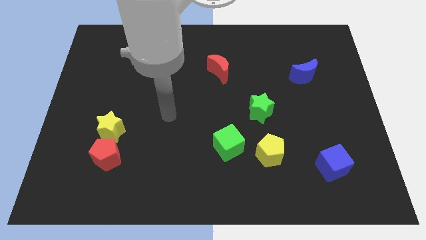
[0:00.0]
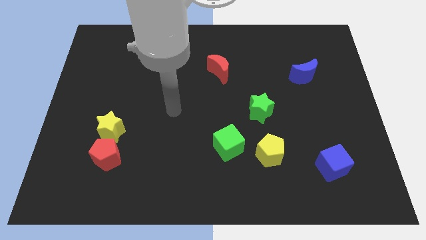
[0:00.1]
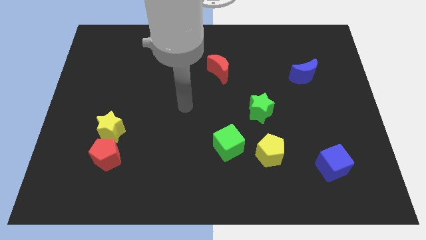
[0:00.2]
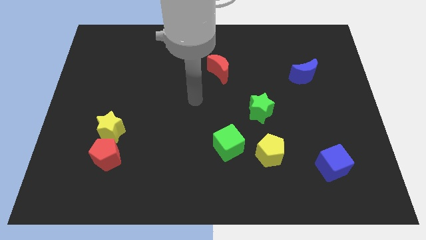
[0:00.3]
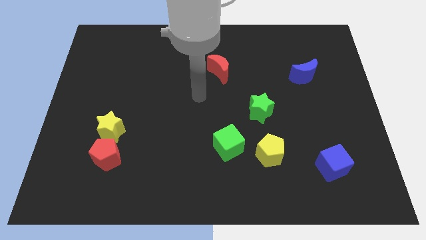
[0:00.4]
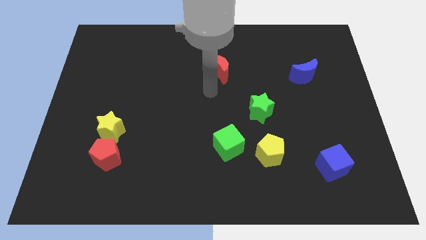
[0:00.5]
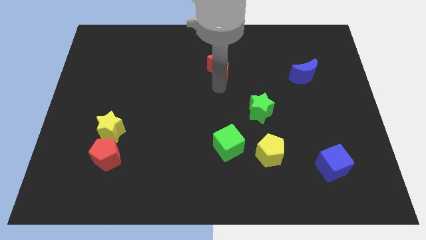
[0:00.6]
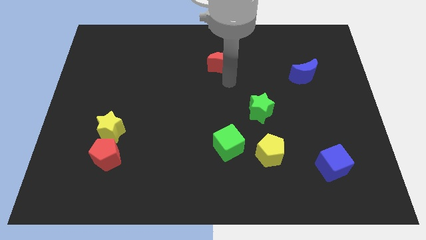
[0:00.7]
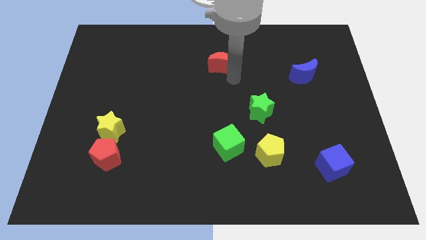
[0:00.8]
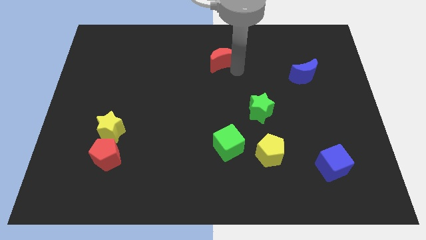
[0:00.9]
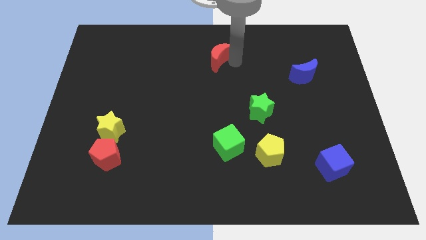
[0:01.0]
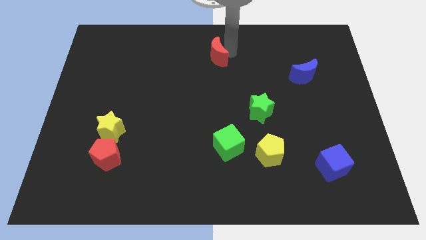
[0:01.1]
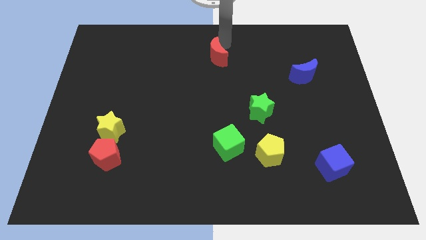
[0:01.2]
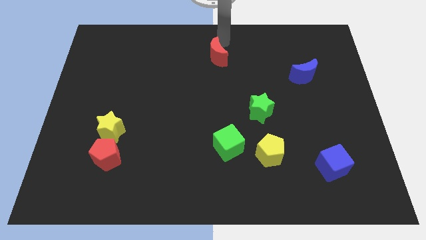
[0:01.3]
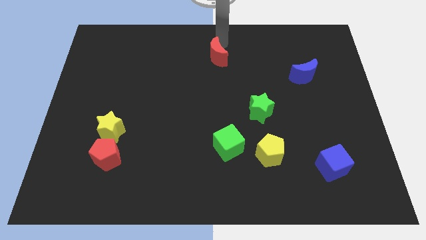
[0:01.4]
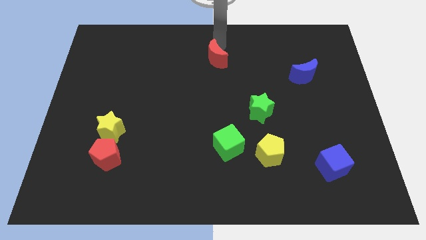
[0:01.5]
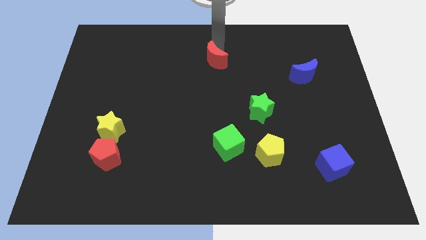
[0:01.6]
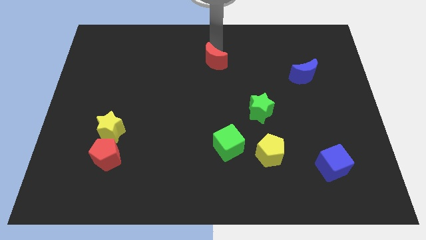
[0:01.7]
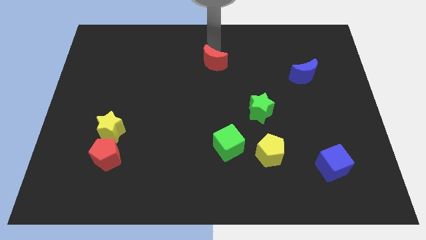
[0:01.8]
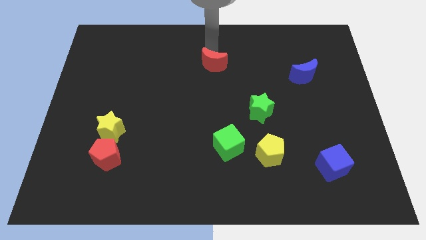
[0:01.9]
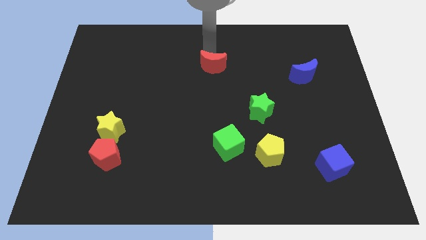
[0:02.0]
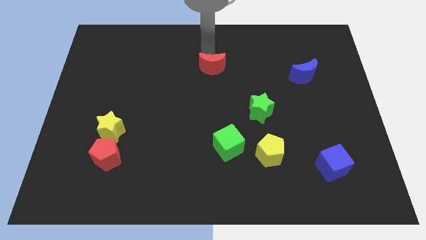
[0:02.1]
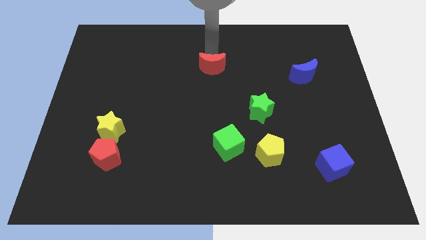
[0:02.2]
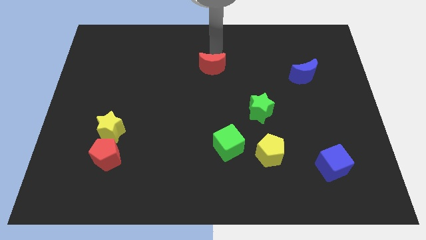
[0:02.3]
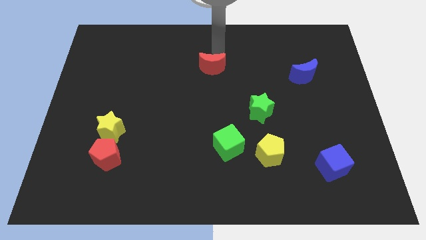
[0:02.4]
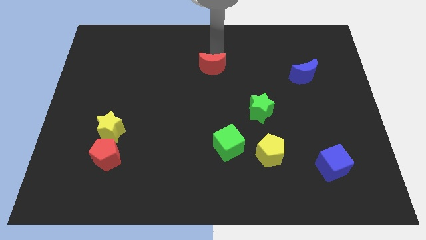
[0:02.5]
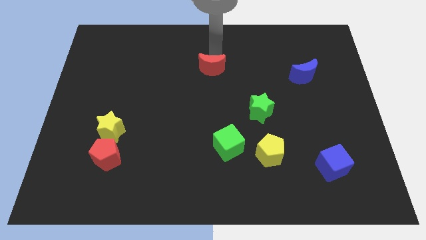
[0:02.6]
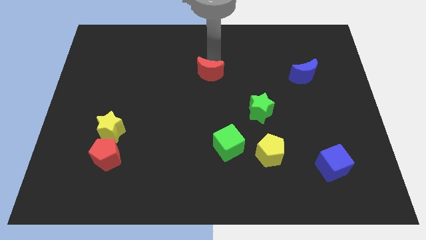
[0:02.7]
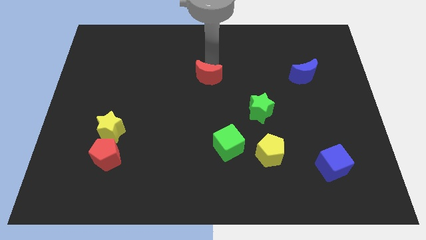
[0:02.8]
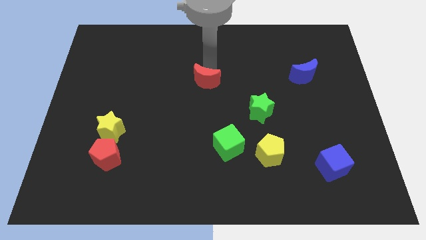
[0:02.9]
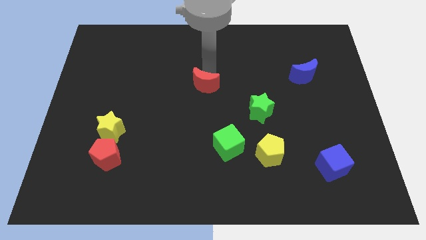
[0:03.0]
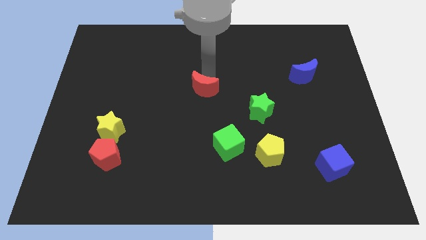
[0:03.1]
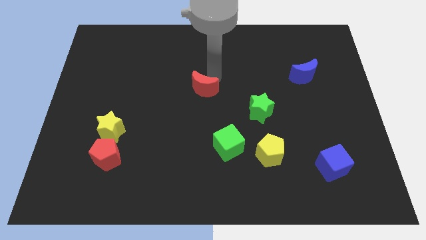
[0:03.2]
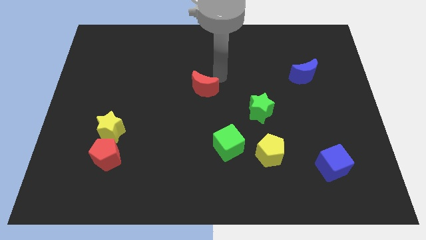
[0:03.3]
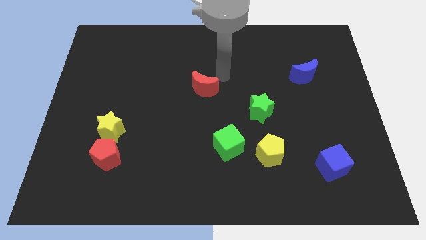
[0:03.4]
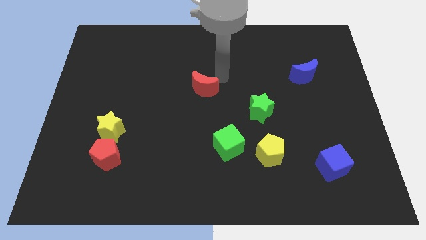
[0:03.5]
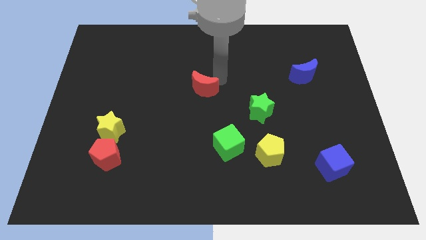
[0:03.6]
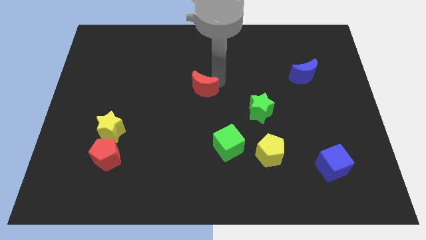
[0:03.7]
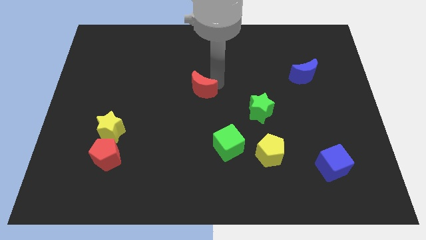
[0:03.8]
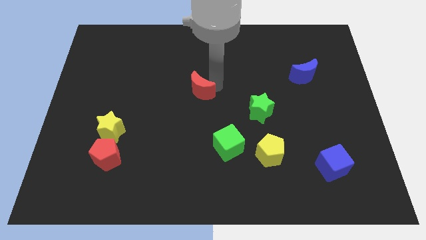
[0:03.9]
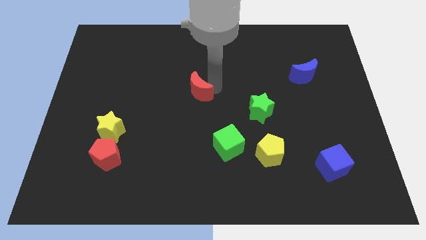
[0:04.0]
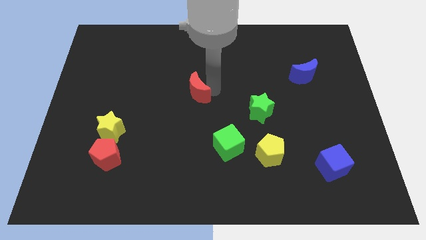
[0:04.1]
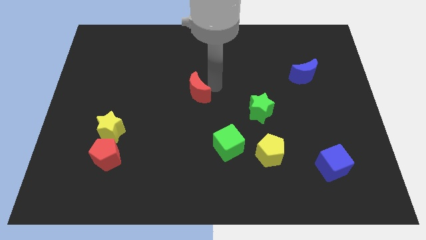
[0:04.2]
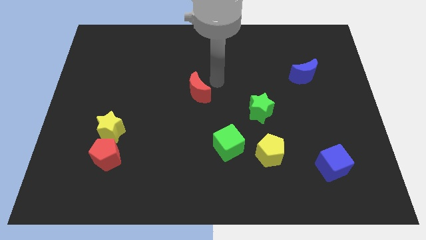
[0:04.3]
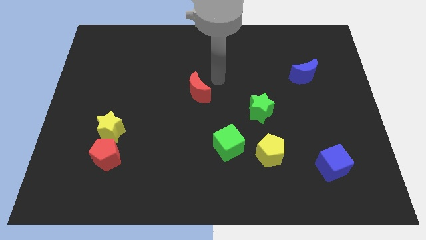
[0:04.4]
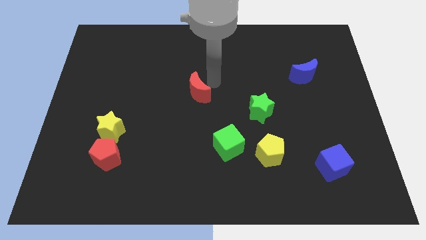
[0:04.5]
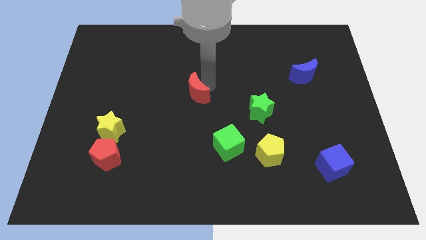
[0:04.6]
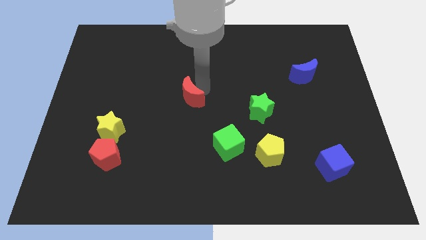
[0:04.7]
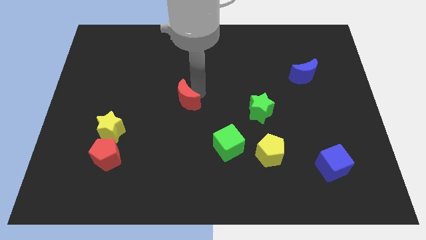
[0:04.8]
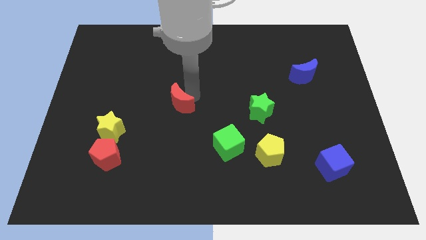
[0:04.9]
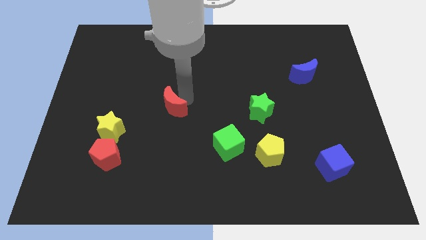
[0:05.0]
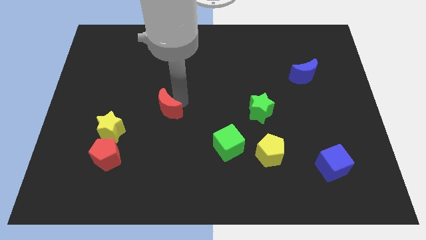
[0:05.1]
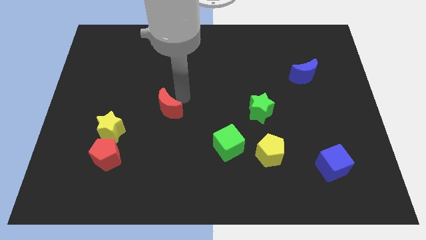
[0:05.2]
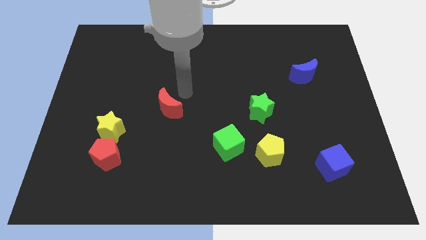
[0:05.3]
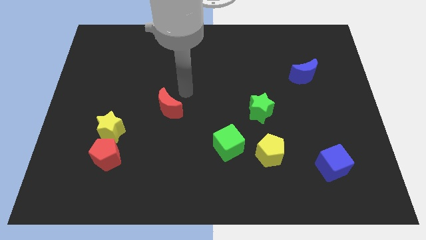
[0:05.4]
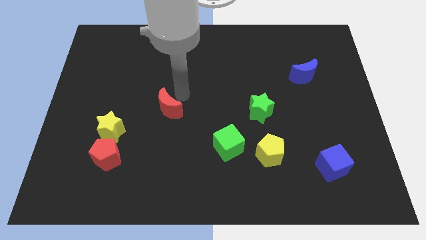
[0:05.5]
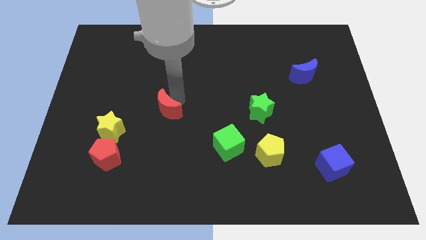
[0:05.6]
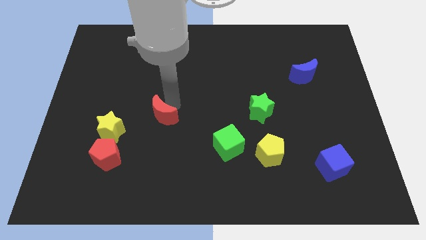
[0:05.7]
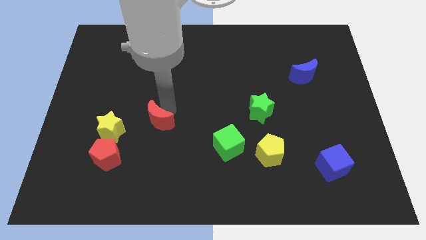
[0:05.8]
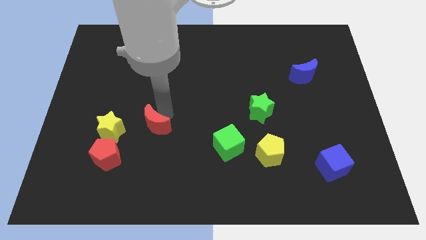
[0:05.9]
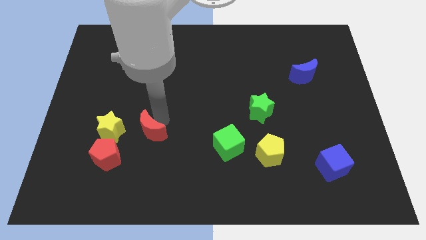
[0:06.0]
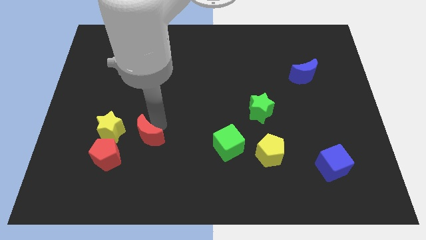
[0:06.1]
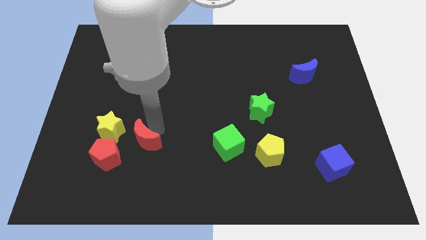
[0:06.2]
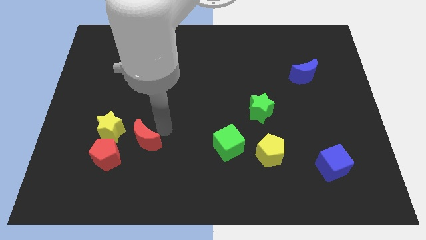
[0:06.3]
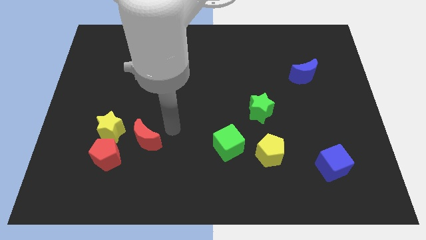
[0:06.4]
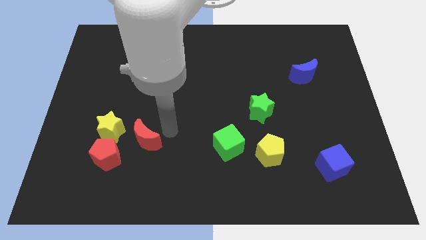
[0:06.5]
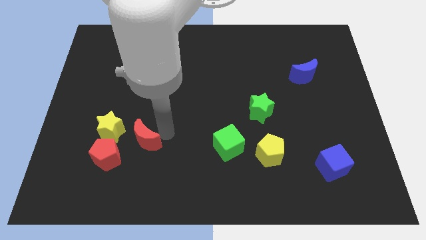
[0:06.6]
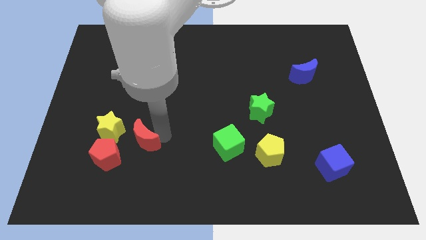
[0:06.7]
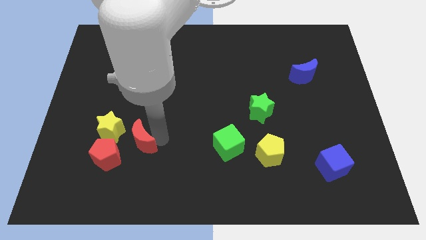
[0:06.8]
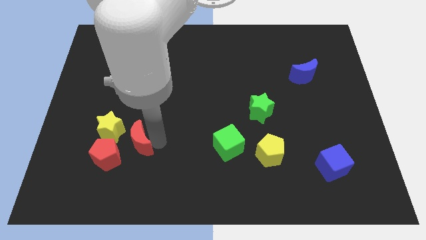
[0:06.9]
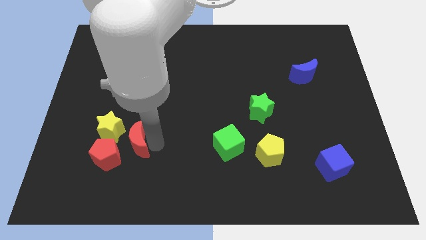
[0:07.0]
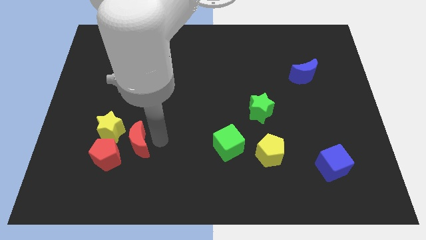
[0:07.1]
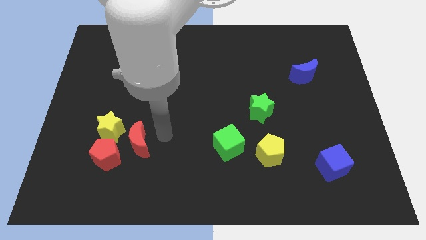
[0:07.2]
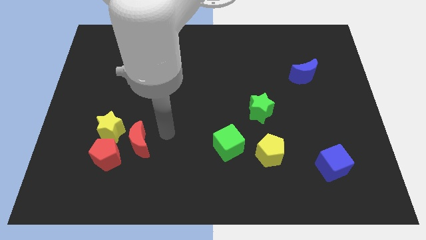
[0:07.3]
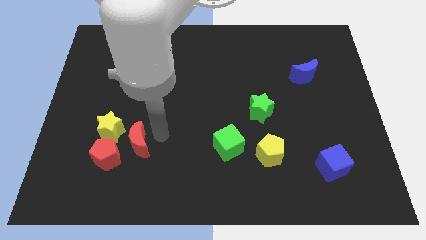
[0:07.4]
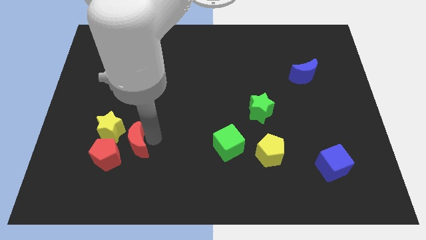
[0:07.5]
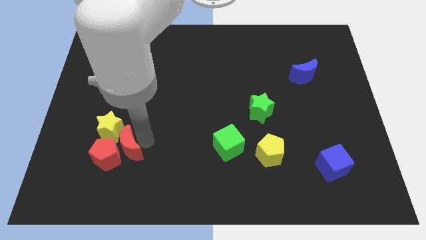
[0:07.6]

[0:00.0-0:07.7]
put the red moon close to the red pentagon

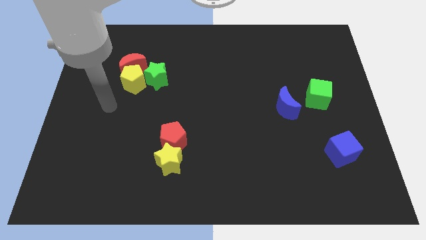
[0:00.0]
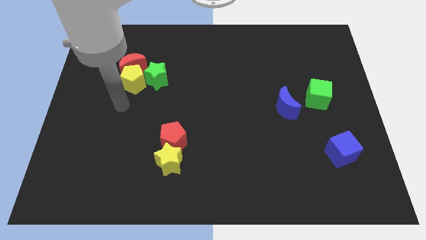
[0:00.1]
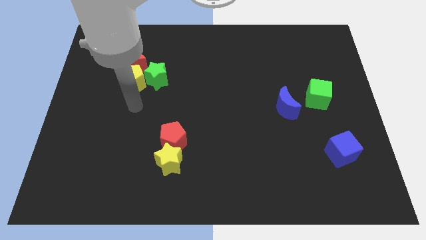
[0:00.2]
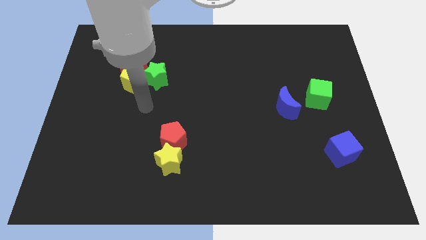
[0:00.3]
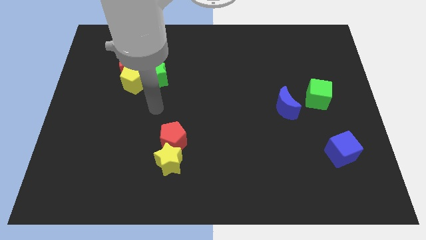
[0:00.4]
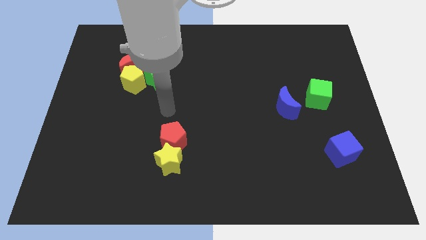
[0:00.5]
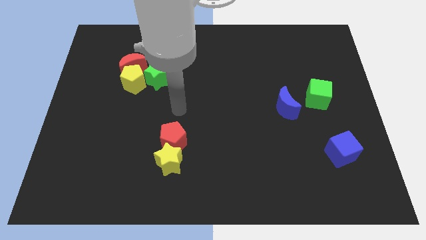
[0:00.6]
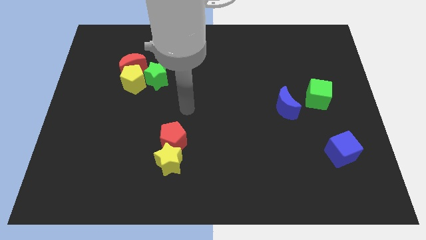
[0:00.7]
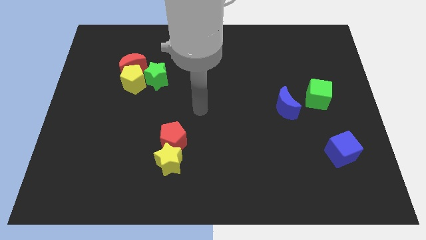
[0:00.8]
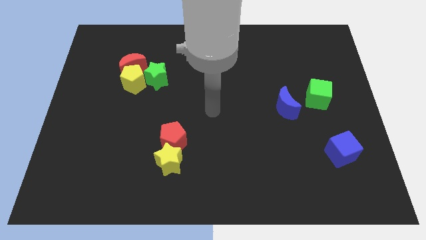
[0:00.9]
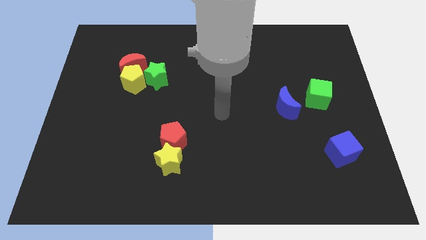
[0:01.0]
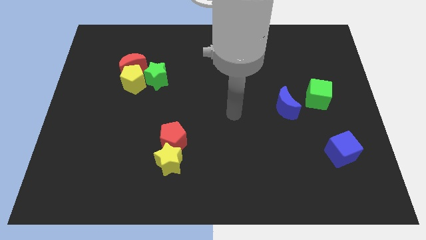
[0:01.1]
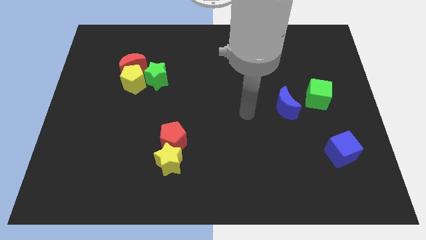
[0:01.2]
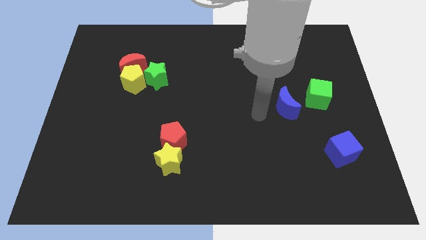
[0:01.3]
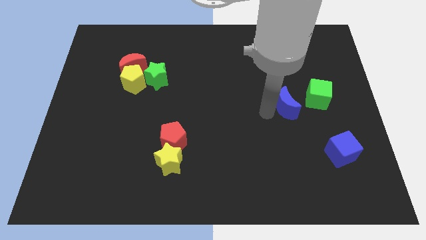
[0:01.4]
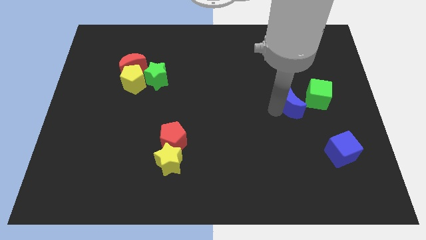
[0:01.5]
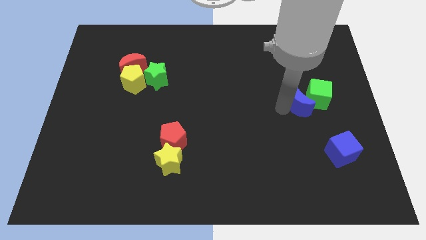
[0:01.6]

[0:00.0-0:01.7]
push the blue moon to the green cube
